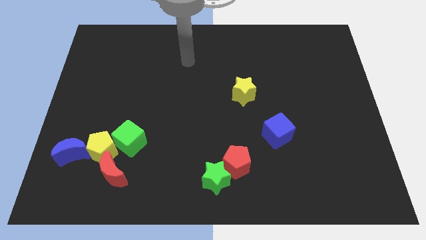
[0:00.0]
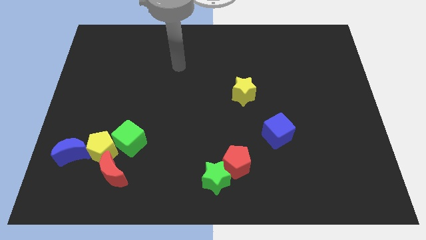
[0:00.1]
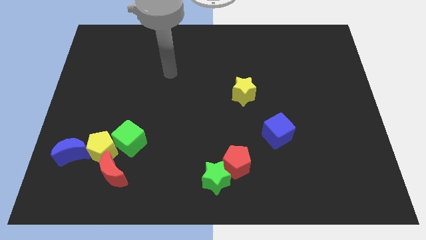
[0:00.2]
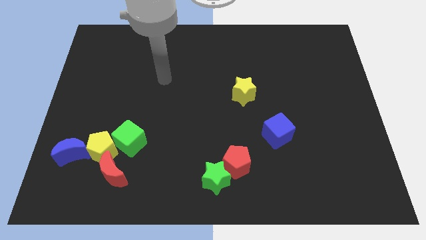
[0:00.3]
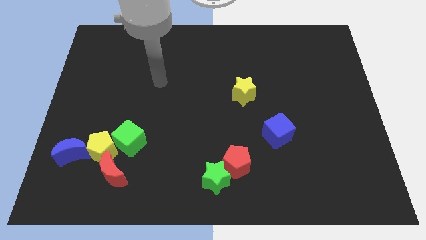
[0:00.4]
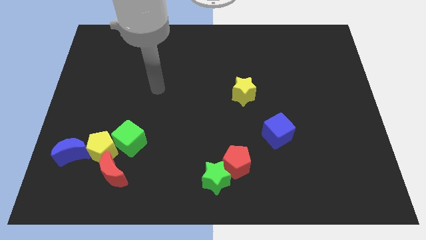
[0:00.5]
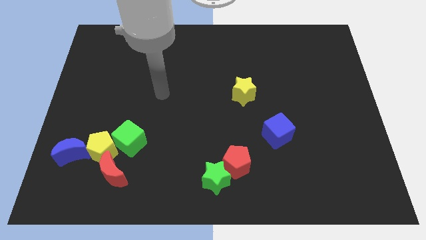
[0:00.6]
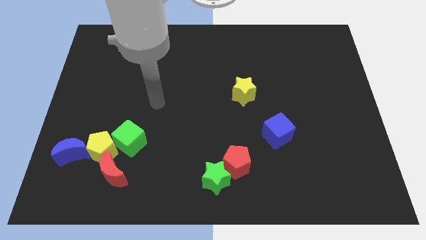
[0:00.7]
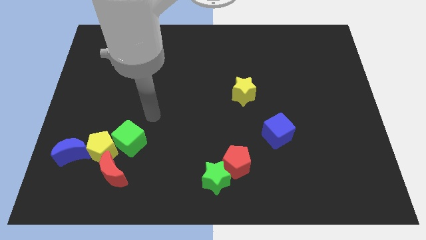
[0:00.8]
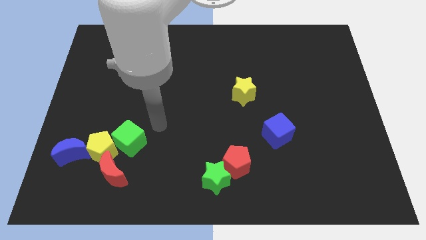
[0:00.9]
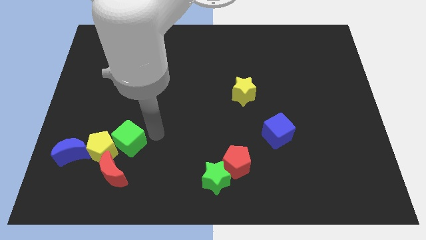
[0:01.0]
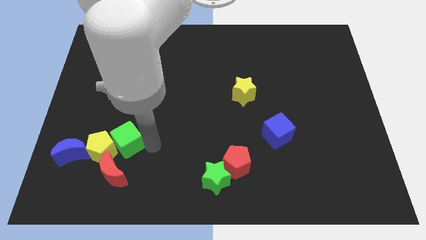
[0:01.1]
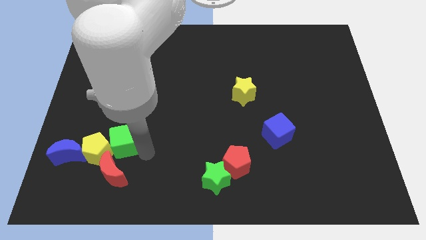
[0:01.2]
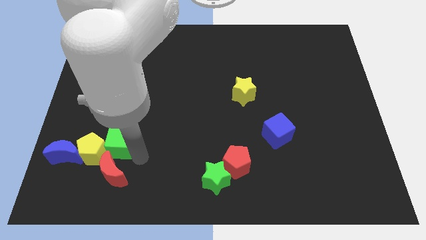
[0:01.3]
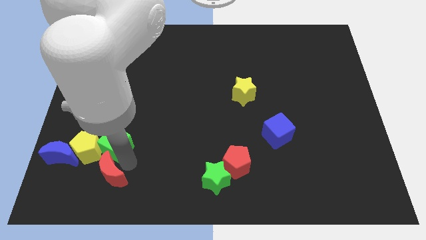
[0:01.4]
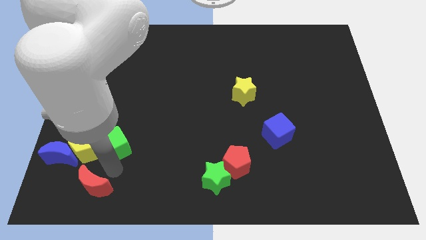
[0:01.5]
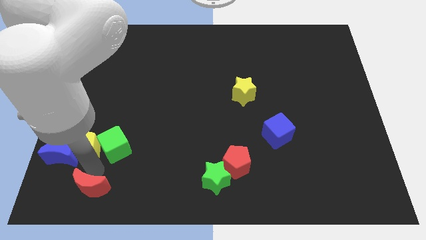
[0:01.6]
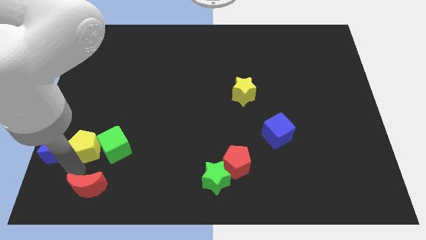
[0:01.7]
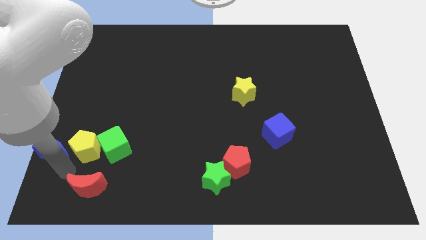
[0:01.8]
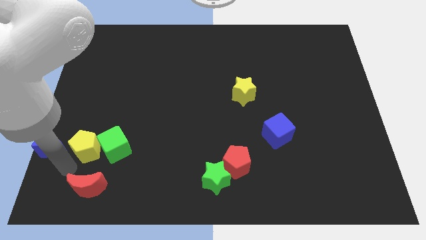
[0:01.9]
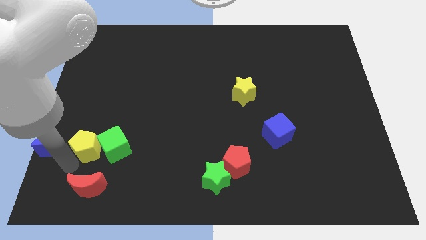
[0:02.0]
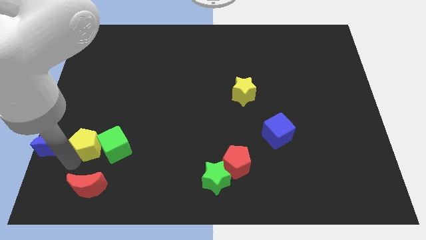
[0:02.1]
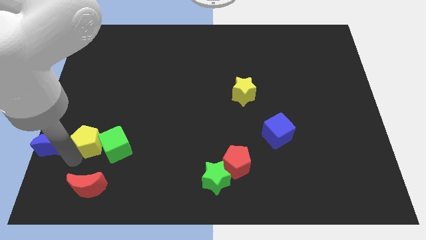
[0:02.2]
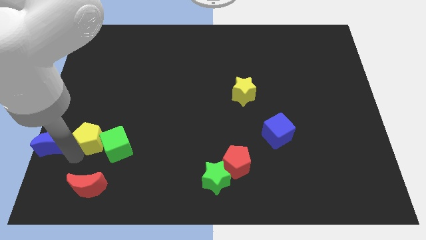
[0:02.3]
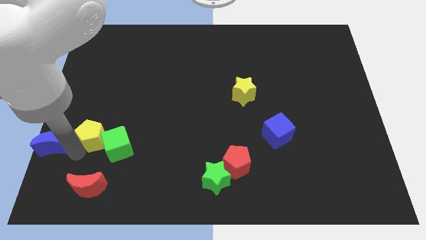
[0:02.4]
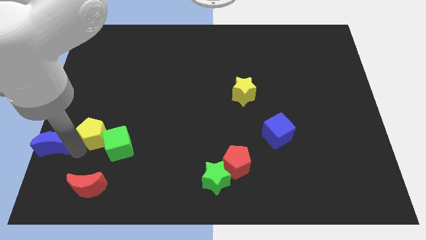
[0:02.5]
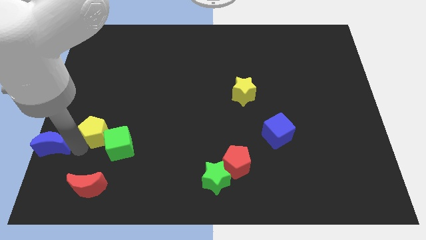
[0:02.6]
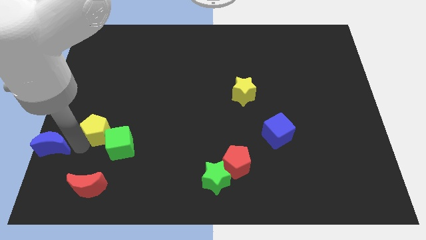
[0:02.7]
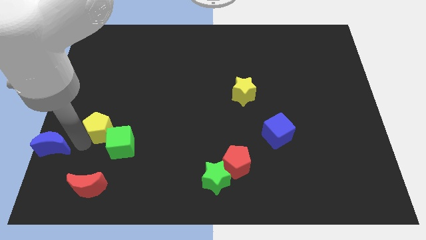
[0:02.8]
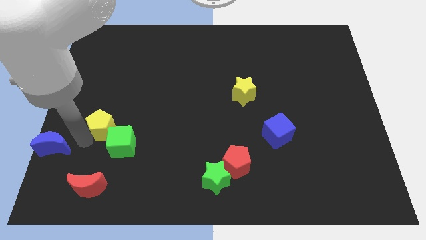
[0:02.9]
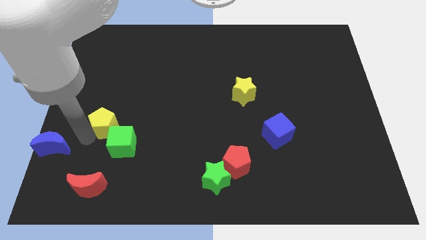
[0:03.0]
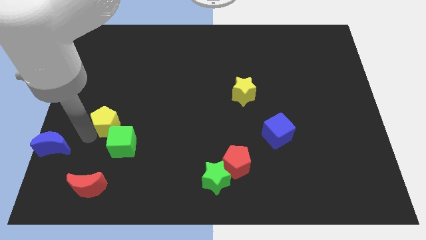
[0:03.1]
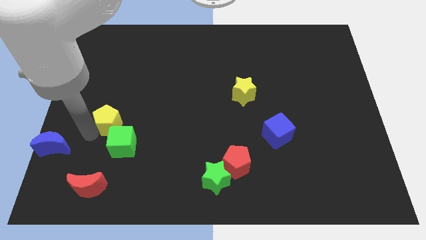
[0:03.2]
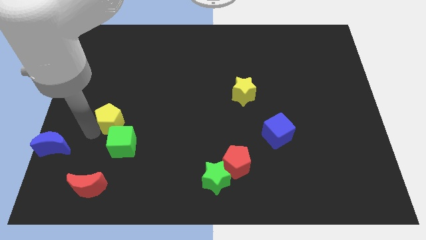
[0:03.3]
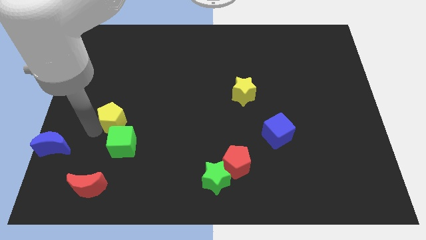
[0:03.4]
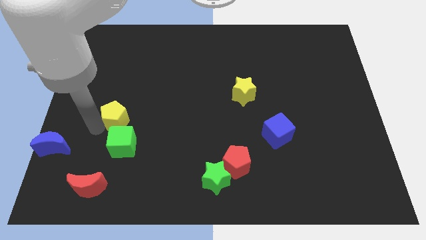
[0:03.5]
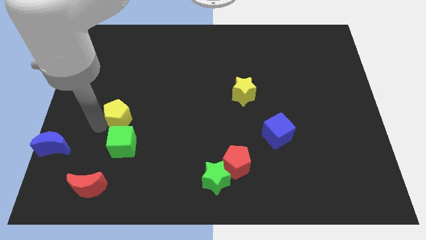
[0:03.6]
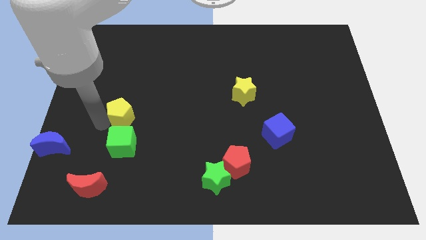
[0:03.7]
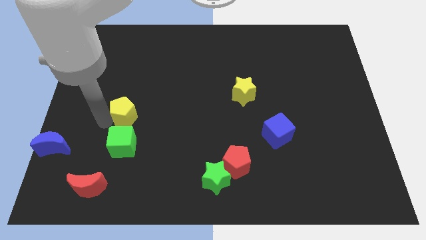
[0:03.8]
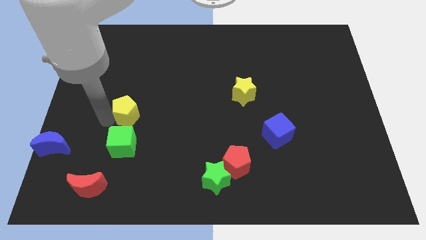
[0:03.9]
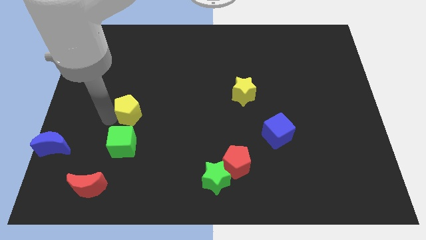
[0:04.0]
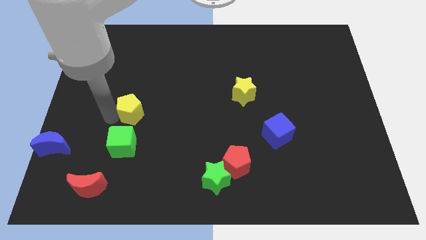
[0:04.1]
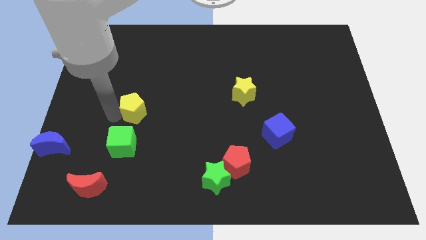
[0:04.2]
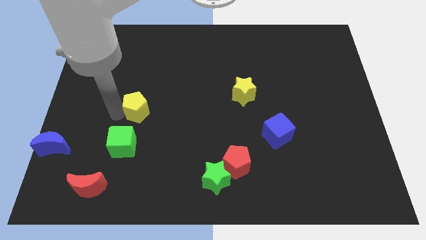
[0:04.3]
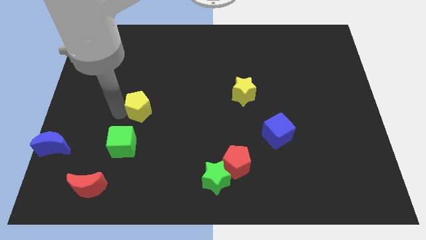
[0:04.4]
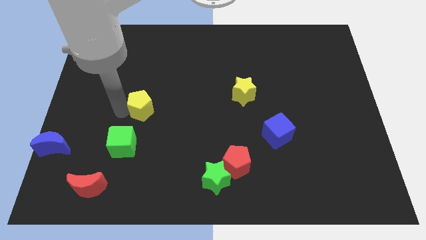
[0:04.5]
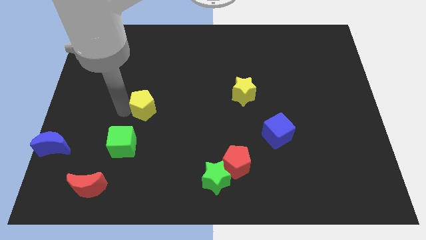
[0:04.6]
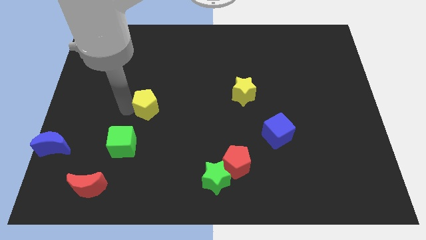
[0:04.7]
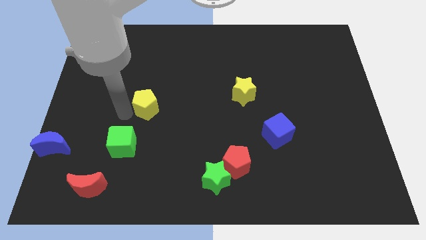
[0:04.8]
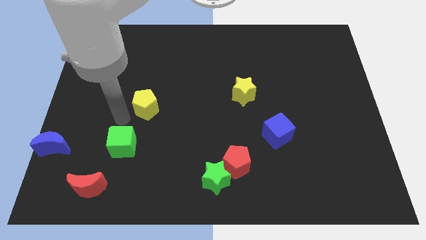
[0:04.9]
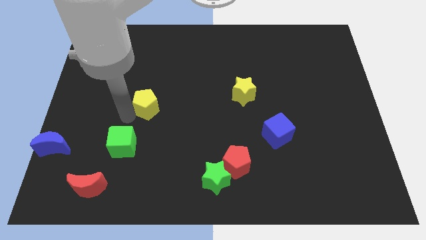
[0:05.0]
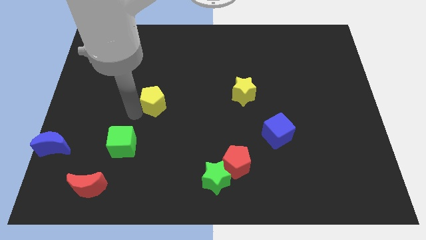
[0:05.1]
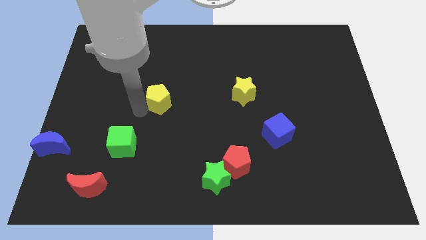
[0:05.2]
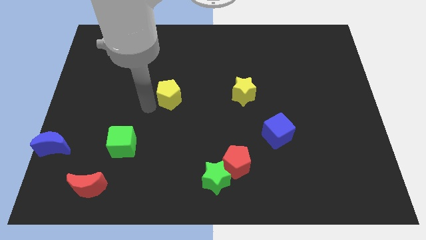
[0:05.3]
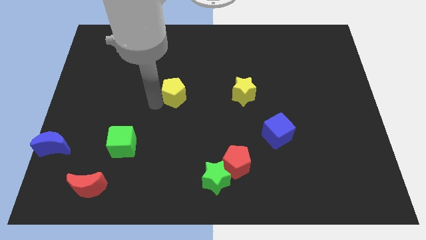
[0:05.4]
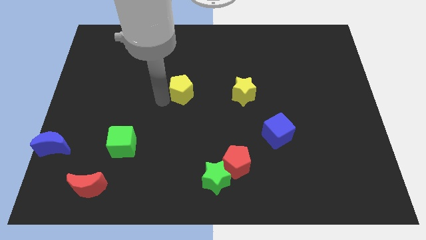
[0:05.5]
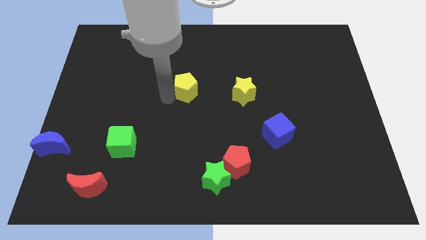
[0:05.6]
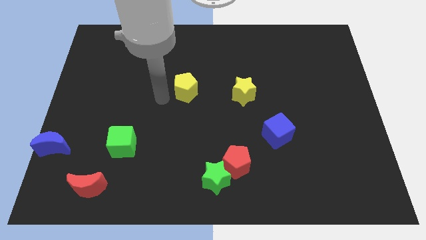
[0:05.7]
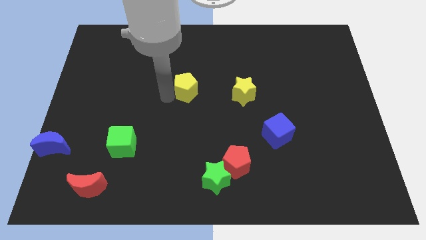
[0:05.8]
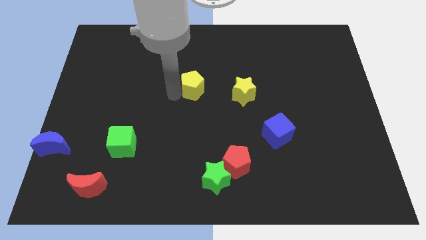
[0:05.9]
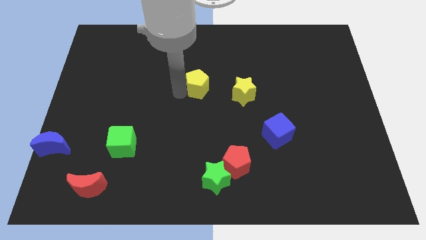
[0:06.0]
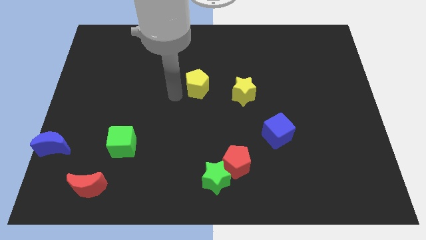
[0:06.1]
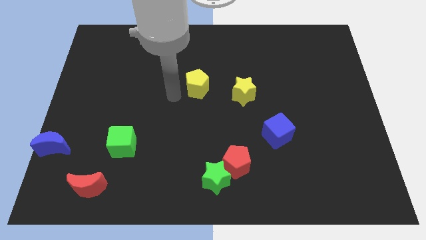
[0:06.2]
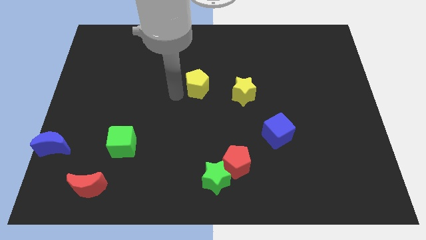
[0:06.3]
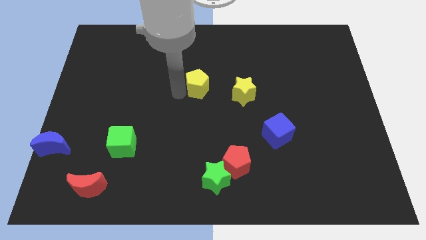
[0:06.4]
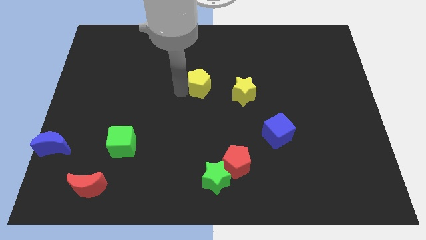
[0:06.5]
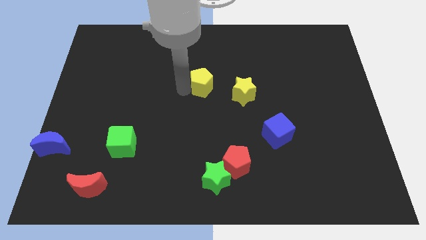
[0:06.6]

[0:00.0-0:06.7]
put the yellow pentagon to the top left of the yellow star

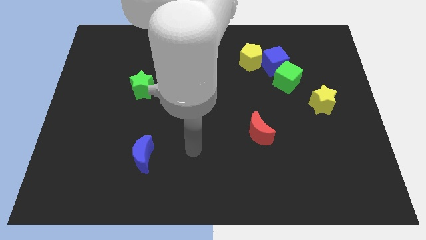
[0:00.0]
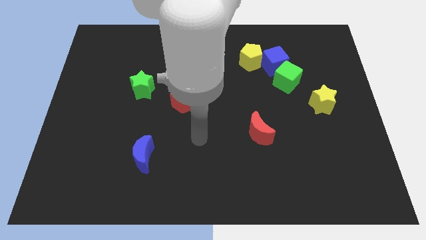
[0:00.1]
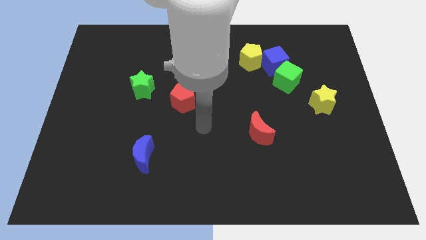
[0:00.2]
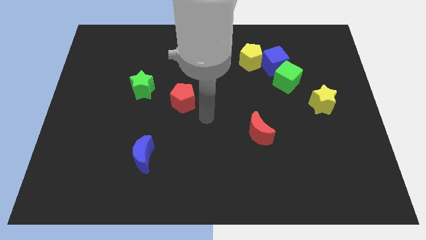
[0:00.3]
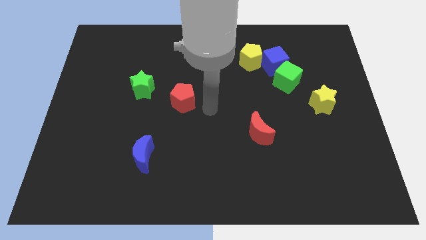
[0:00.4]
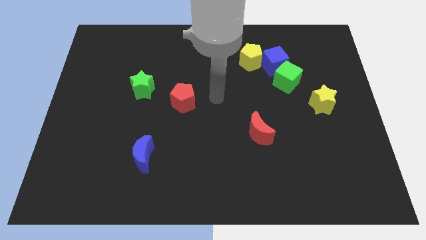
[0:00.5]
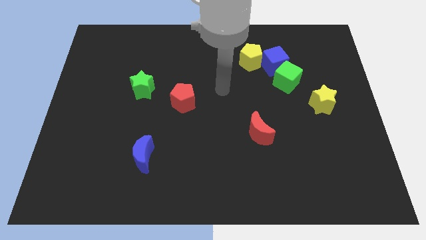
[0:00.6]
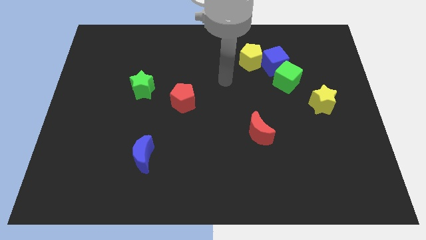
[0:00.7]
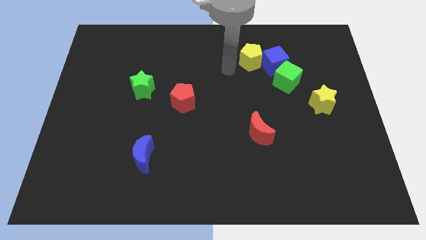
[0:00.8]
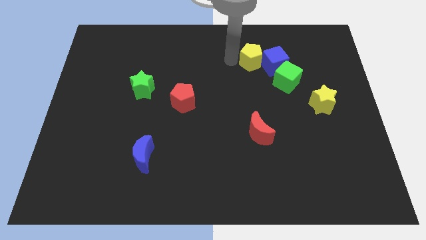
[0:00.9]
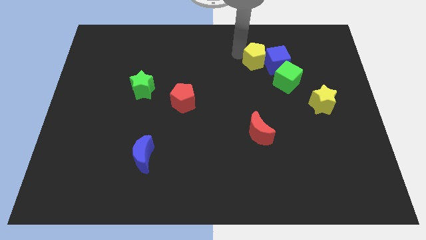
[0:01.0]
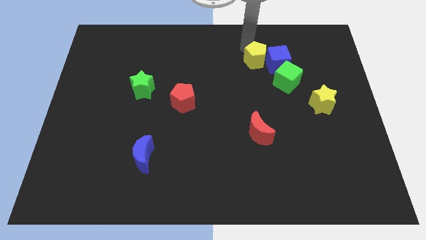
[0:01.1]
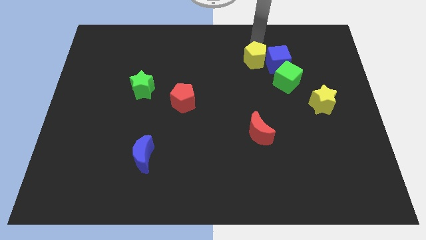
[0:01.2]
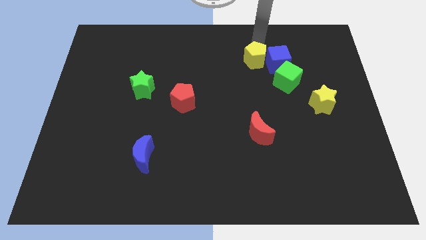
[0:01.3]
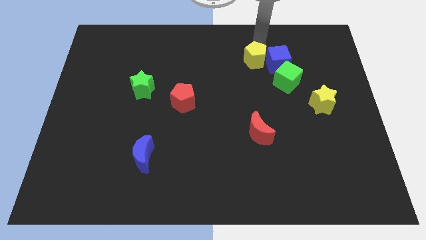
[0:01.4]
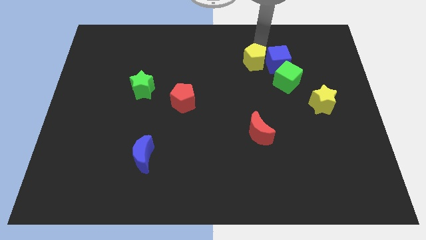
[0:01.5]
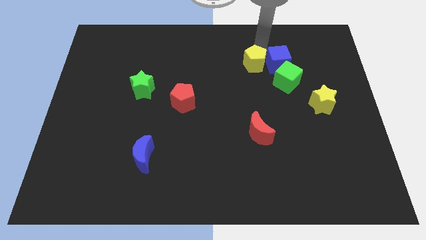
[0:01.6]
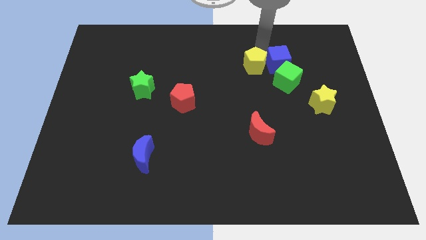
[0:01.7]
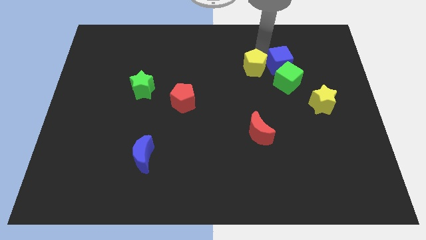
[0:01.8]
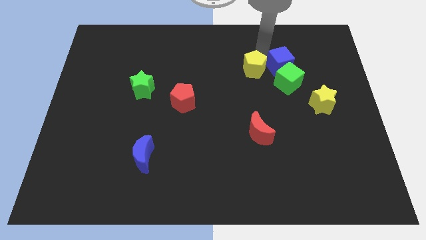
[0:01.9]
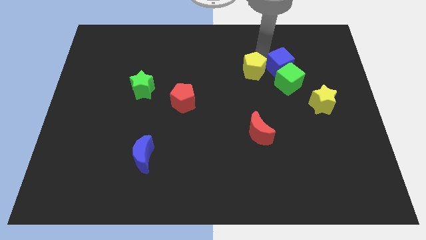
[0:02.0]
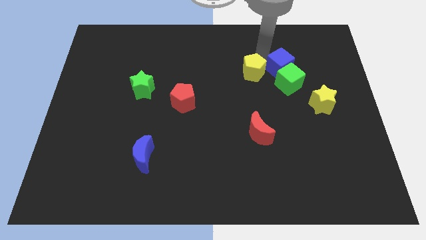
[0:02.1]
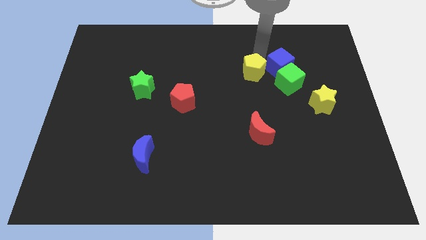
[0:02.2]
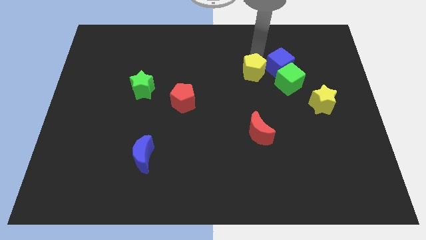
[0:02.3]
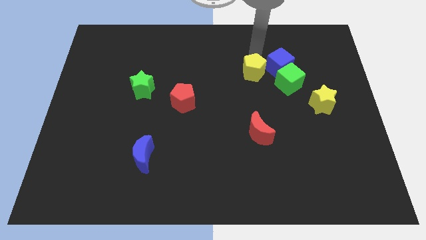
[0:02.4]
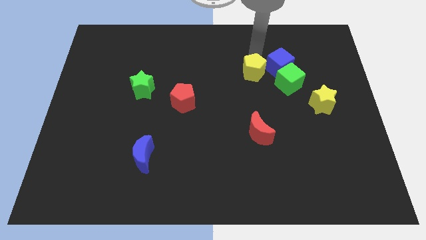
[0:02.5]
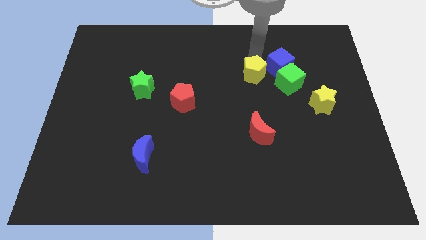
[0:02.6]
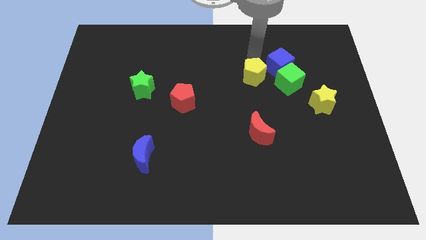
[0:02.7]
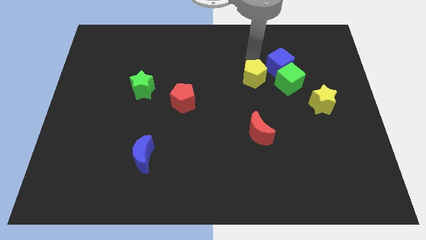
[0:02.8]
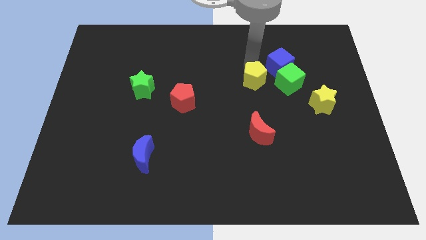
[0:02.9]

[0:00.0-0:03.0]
push the yellow pentagon above the red moon
